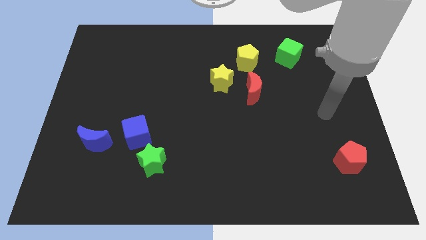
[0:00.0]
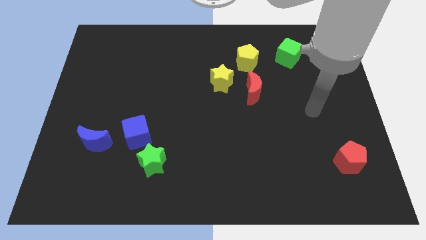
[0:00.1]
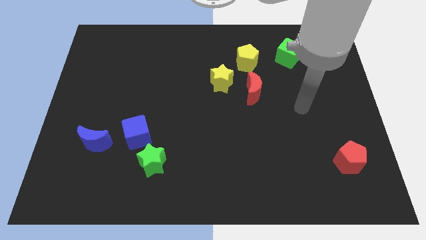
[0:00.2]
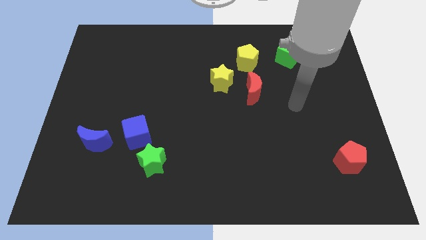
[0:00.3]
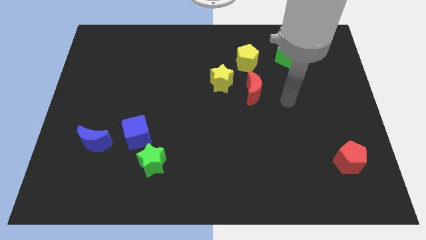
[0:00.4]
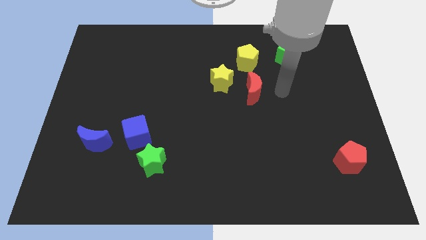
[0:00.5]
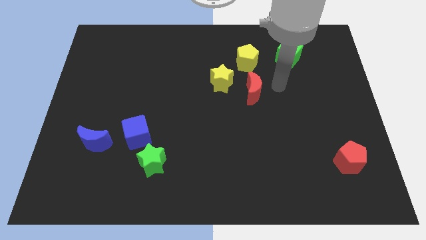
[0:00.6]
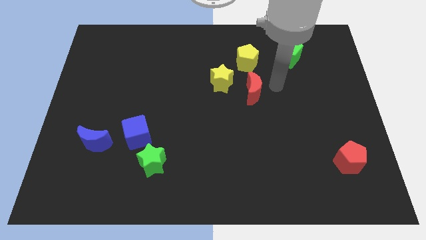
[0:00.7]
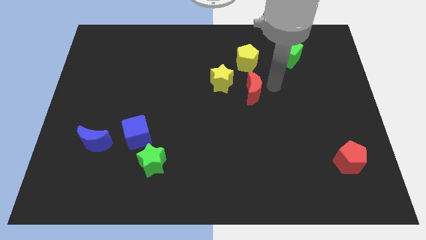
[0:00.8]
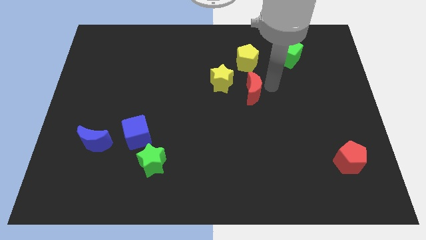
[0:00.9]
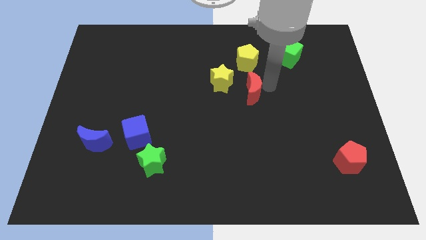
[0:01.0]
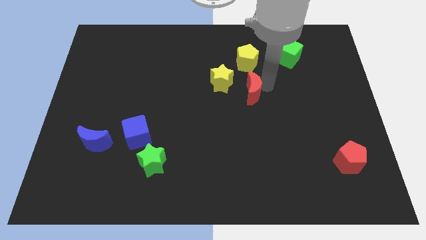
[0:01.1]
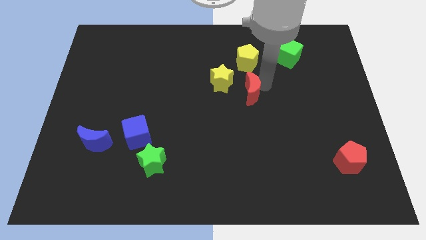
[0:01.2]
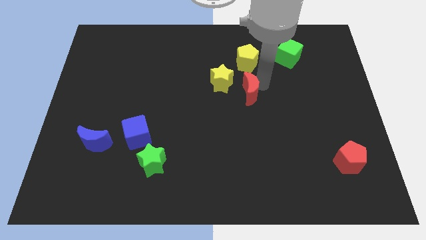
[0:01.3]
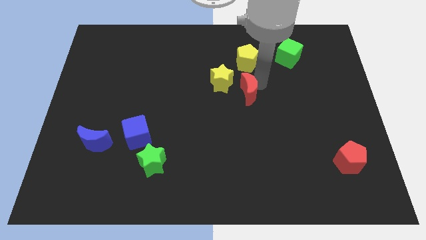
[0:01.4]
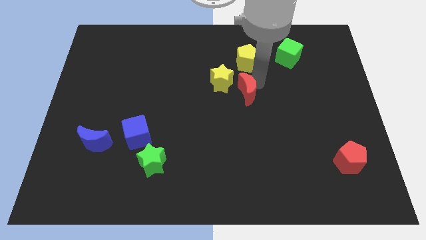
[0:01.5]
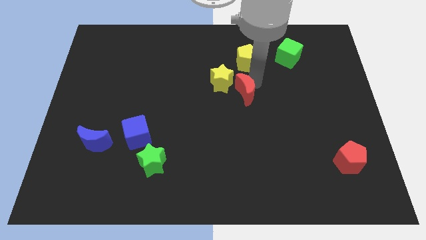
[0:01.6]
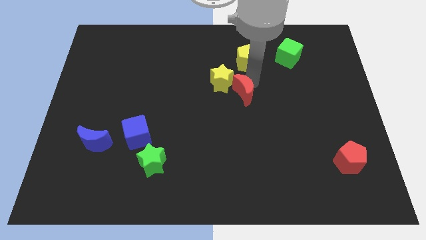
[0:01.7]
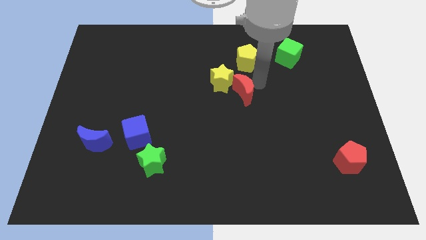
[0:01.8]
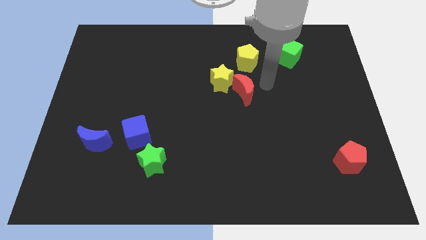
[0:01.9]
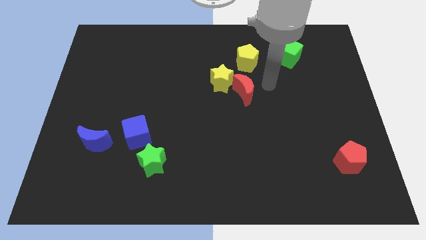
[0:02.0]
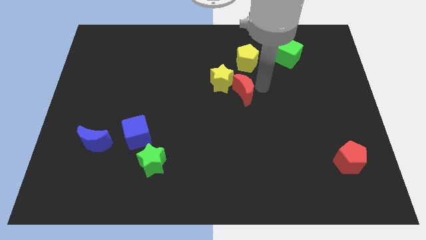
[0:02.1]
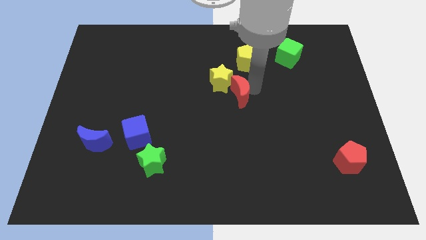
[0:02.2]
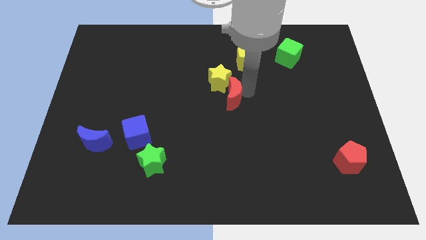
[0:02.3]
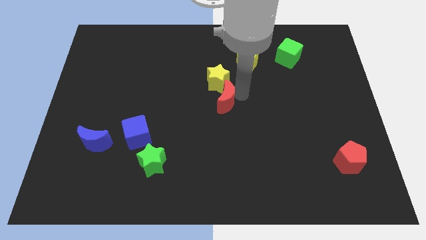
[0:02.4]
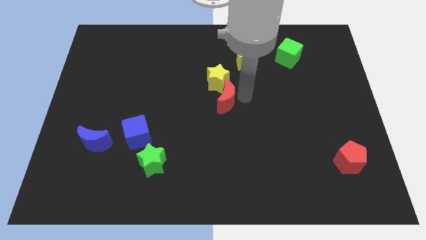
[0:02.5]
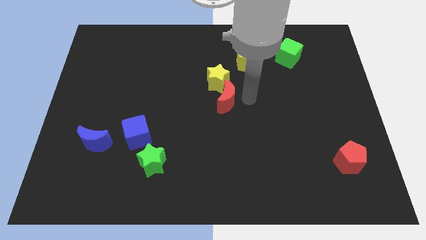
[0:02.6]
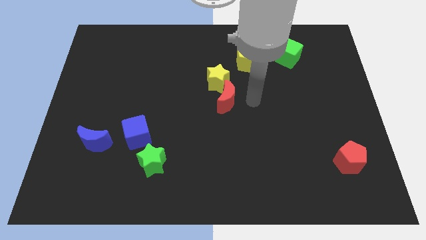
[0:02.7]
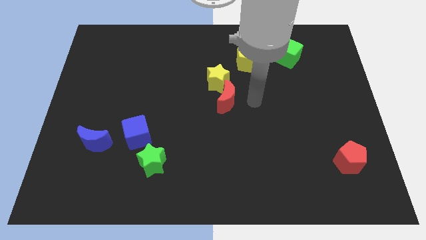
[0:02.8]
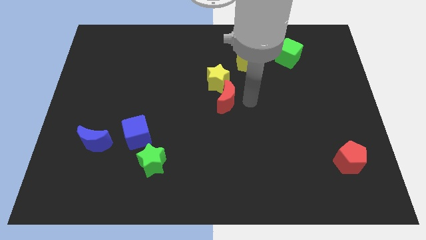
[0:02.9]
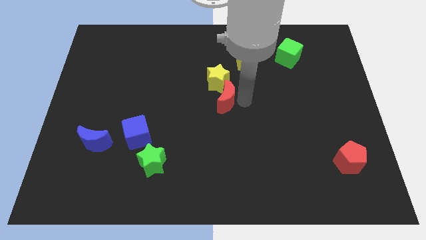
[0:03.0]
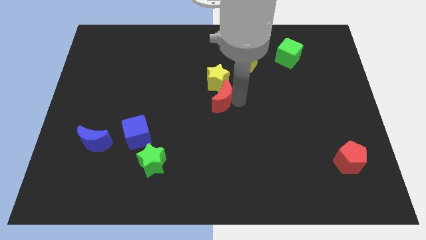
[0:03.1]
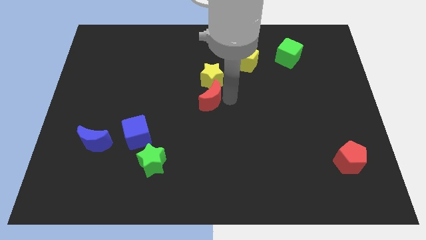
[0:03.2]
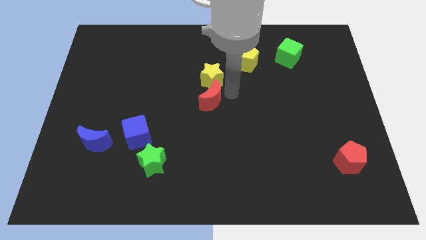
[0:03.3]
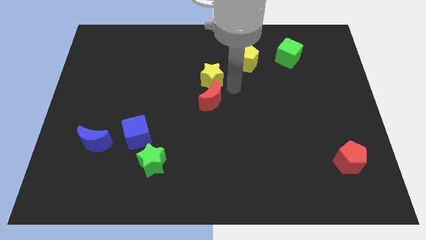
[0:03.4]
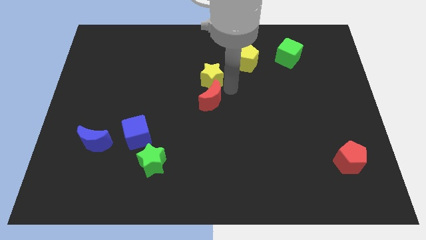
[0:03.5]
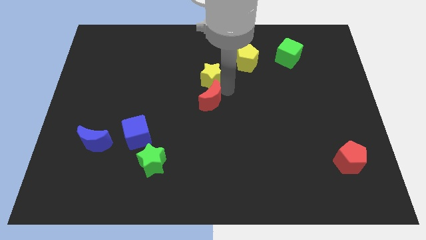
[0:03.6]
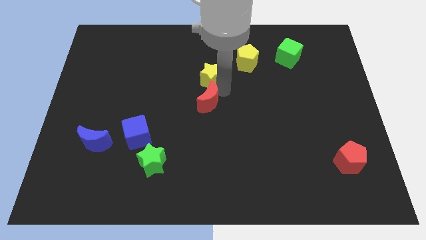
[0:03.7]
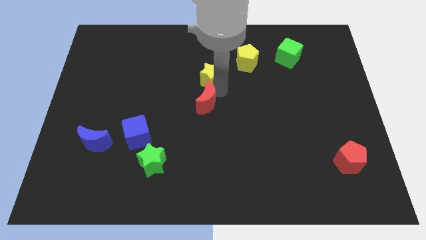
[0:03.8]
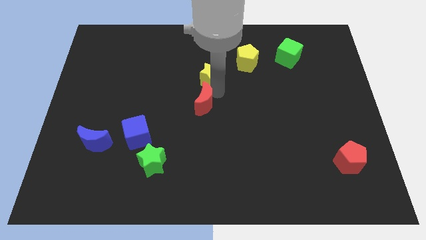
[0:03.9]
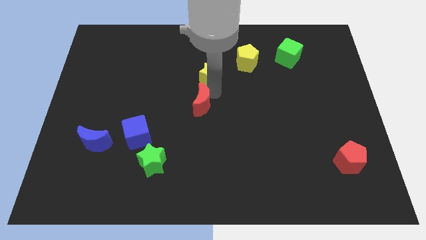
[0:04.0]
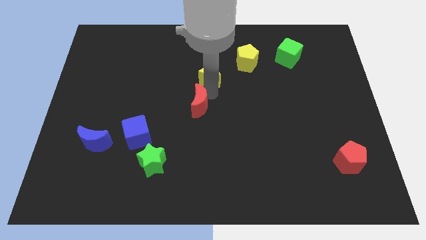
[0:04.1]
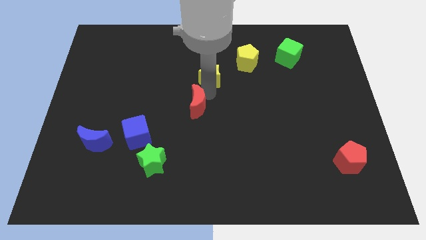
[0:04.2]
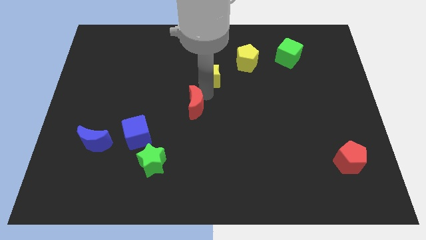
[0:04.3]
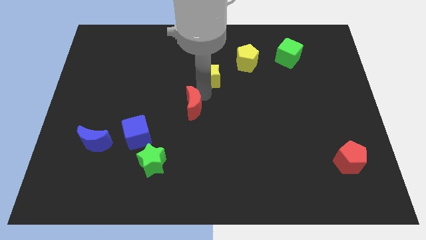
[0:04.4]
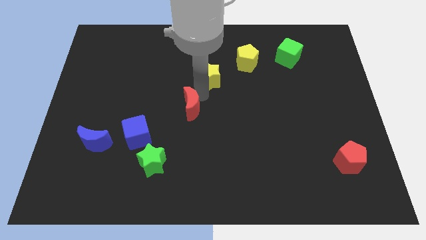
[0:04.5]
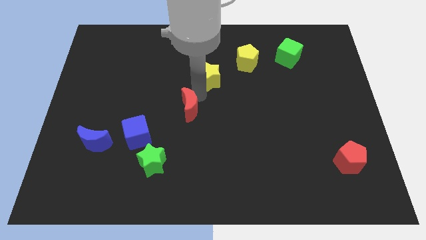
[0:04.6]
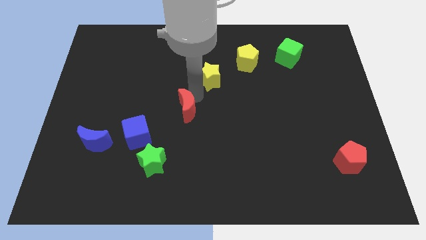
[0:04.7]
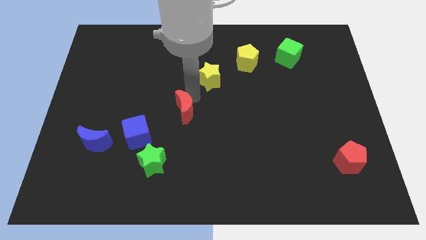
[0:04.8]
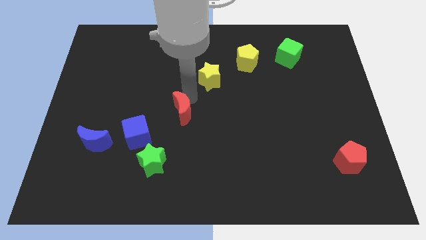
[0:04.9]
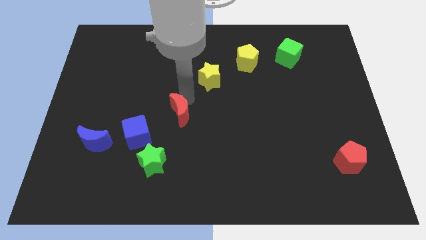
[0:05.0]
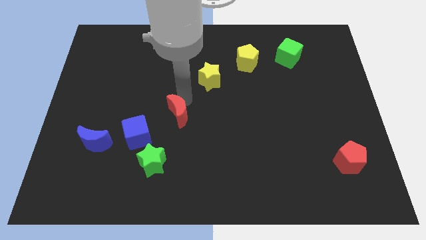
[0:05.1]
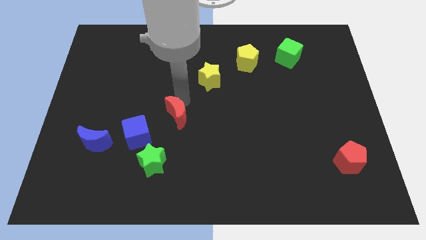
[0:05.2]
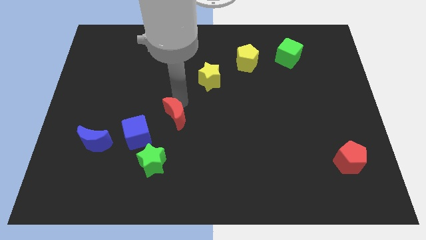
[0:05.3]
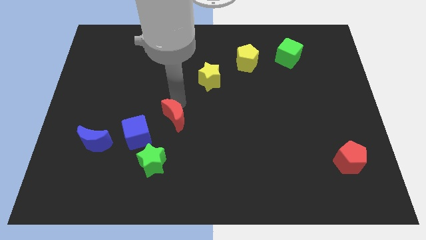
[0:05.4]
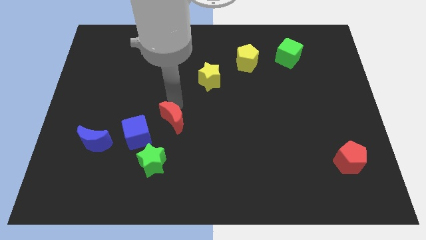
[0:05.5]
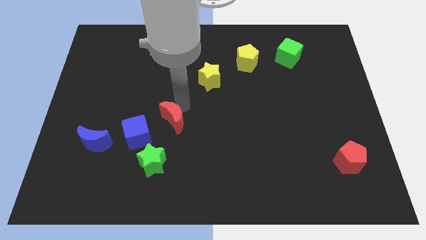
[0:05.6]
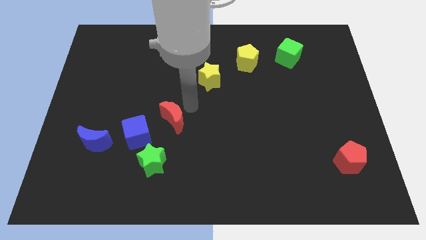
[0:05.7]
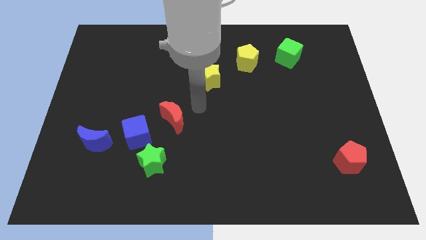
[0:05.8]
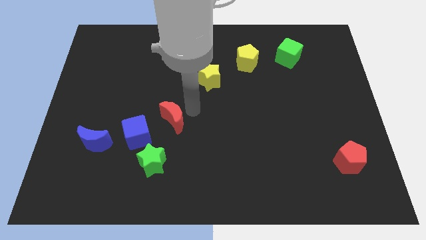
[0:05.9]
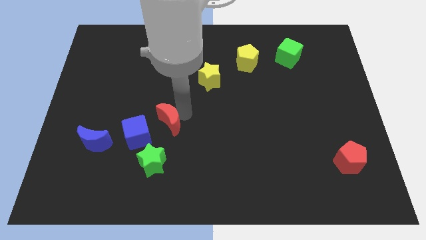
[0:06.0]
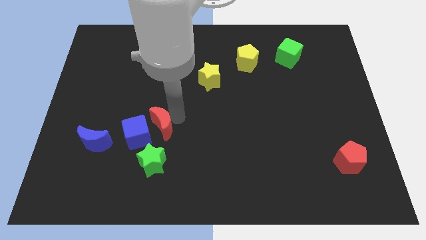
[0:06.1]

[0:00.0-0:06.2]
put the red moon close to the blue cube

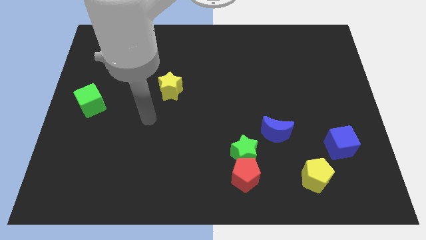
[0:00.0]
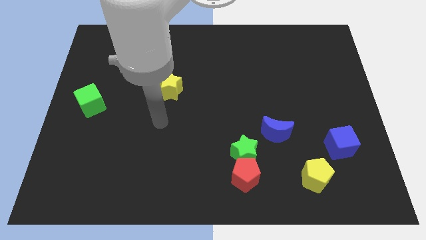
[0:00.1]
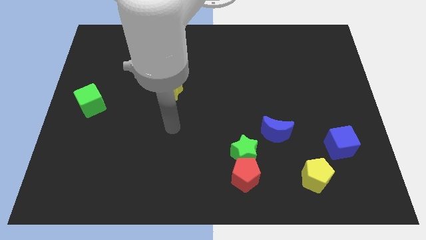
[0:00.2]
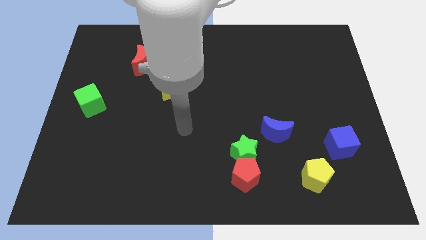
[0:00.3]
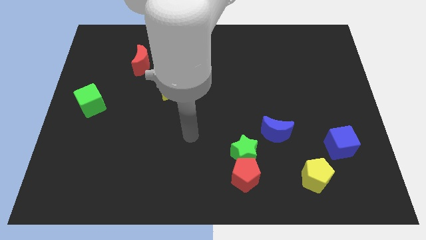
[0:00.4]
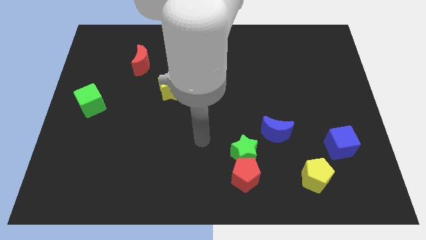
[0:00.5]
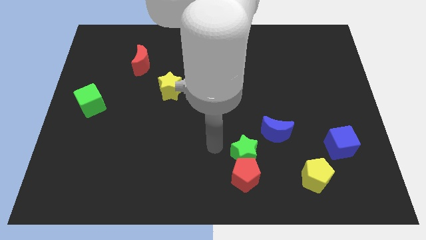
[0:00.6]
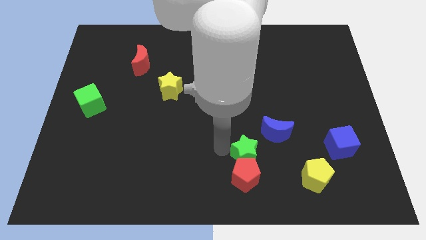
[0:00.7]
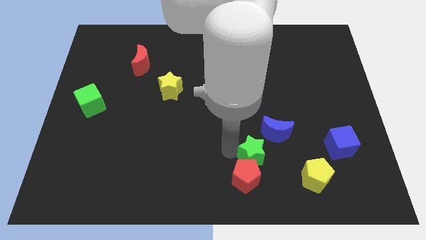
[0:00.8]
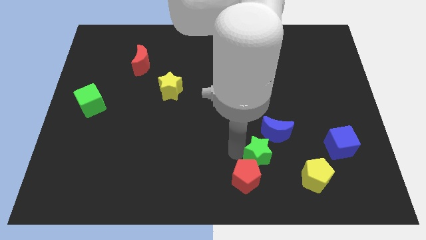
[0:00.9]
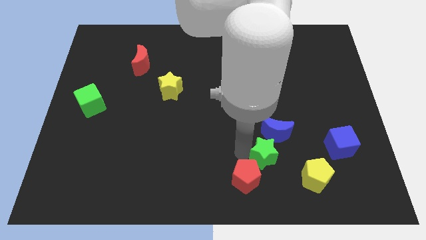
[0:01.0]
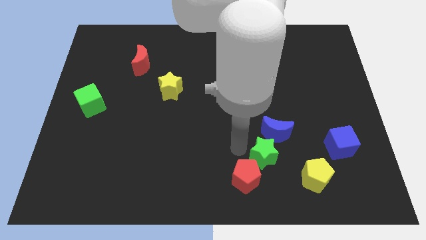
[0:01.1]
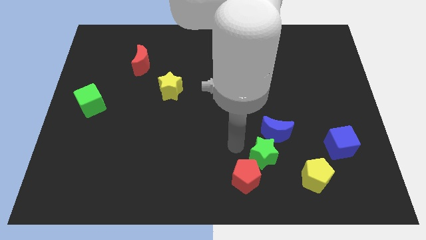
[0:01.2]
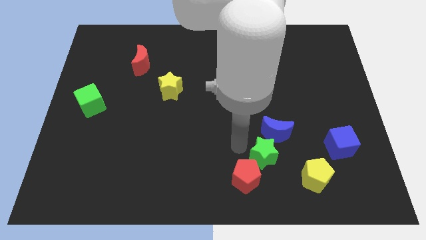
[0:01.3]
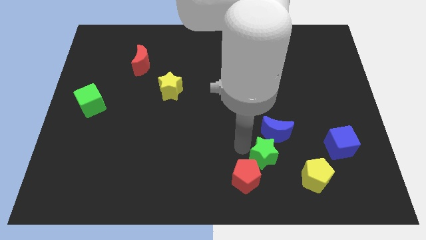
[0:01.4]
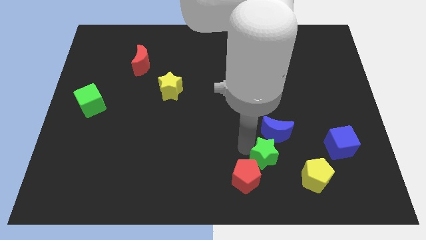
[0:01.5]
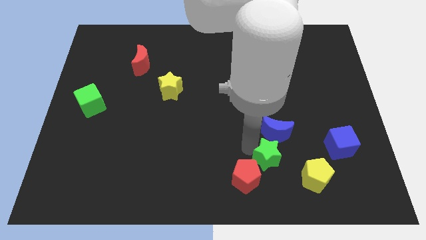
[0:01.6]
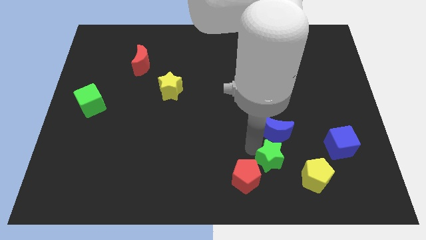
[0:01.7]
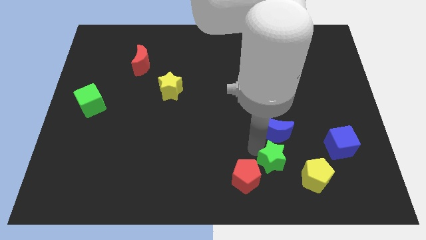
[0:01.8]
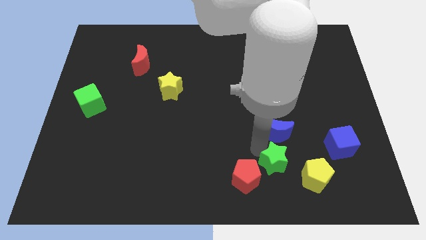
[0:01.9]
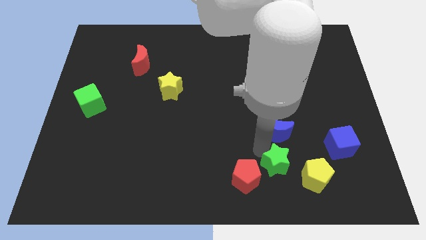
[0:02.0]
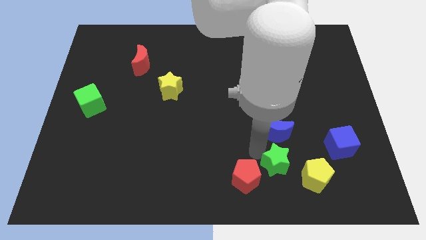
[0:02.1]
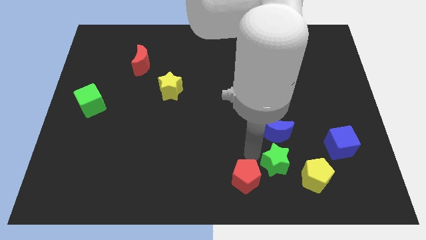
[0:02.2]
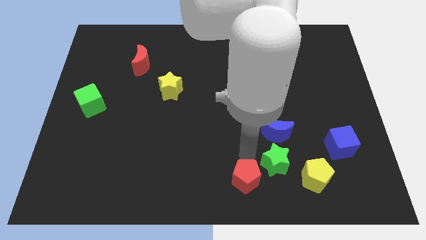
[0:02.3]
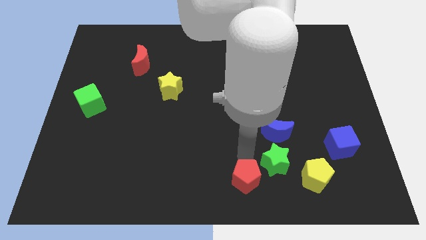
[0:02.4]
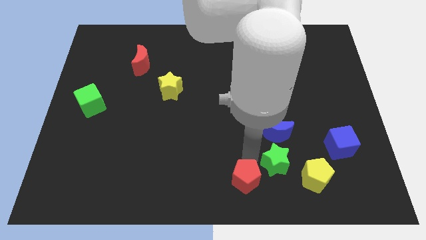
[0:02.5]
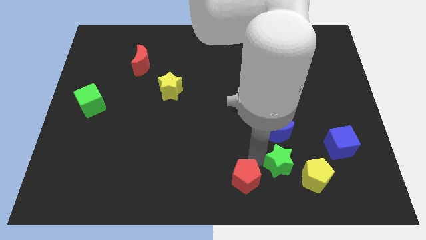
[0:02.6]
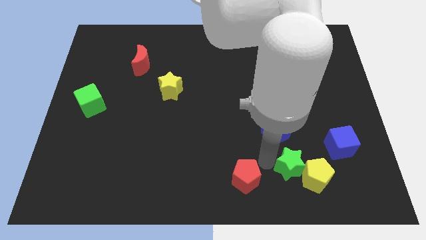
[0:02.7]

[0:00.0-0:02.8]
slide the green star to the yellow pentagon
